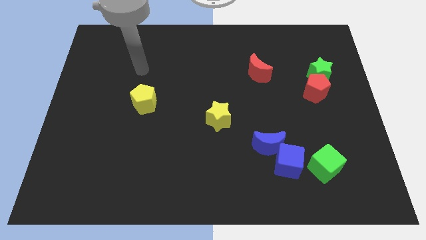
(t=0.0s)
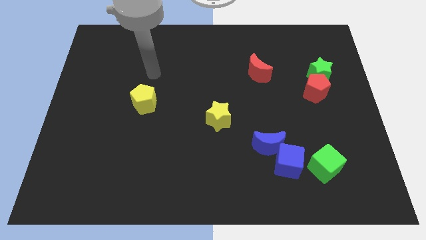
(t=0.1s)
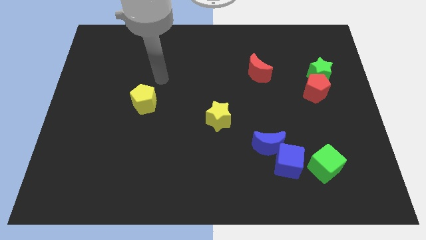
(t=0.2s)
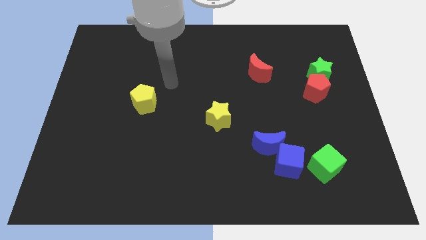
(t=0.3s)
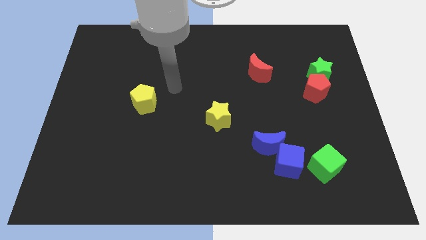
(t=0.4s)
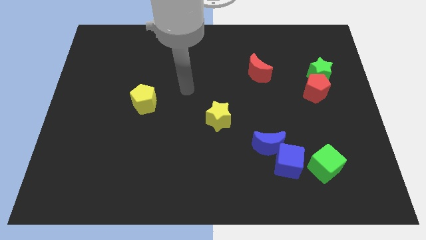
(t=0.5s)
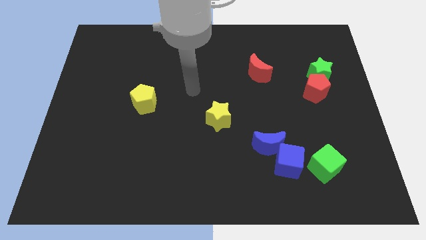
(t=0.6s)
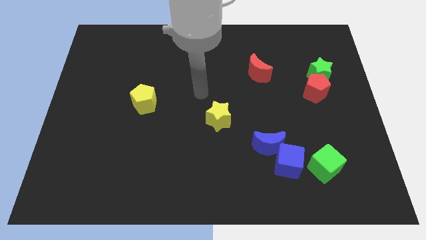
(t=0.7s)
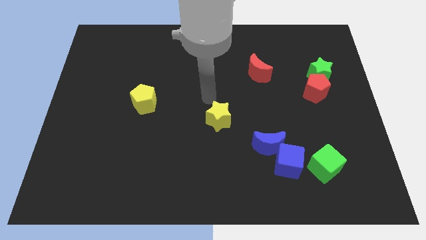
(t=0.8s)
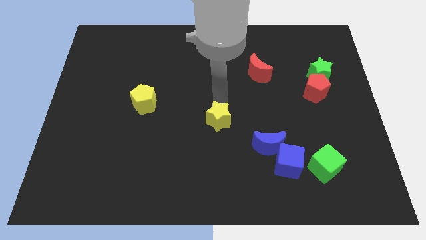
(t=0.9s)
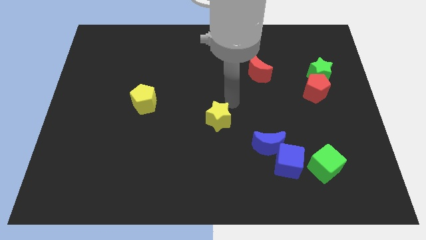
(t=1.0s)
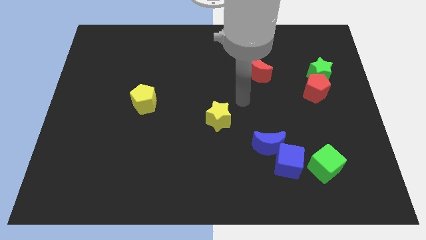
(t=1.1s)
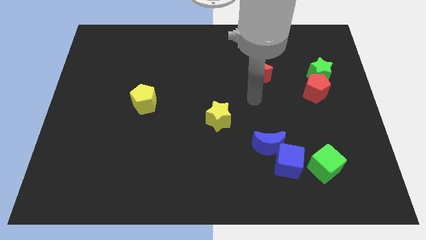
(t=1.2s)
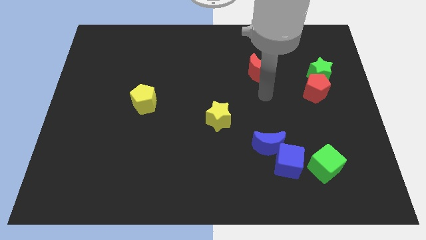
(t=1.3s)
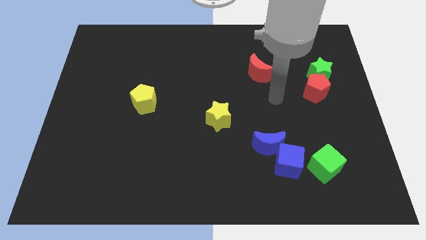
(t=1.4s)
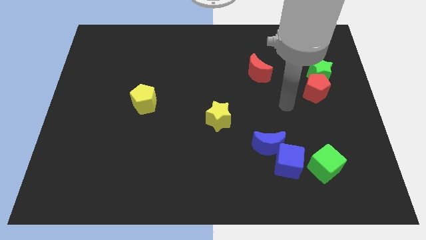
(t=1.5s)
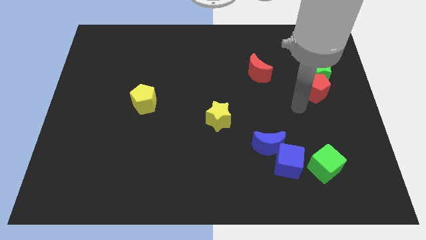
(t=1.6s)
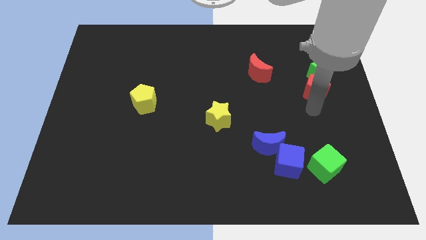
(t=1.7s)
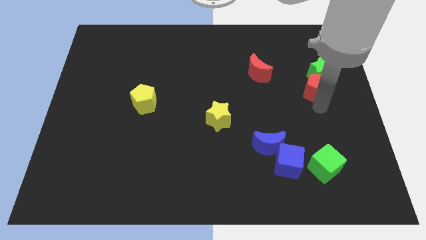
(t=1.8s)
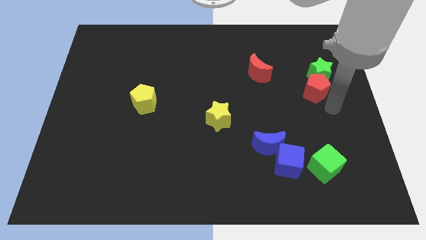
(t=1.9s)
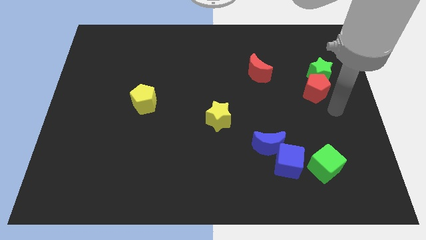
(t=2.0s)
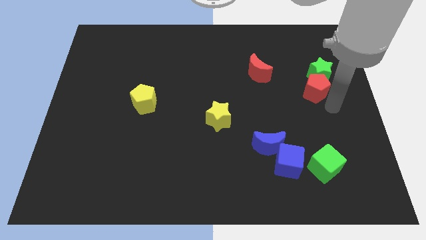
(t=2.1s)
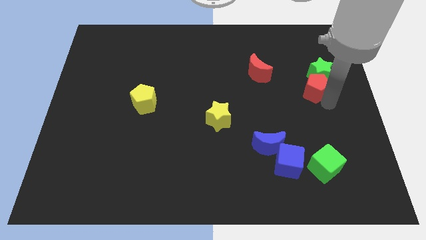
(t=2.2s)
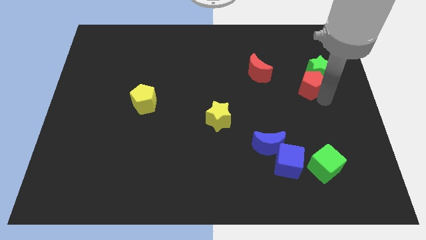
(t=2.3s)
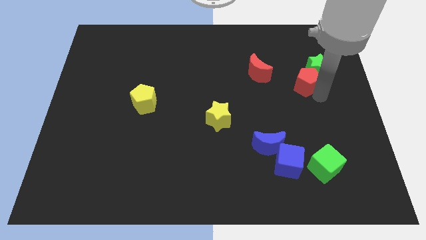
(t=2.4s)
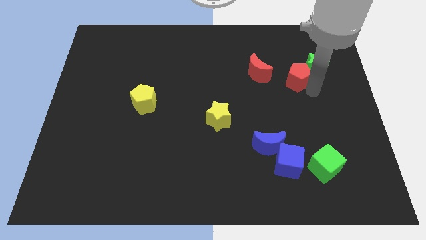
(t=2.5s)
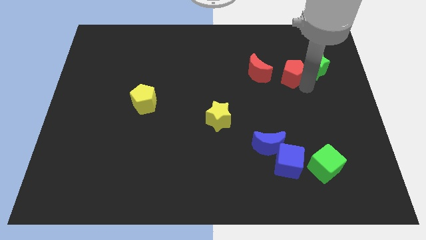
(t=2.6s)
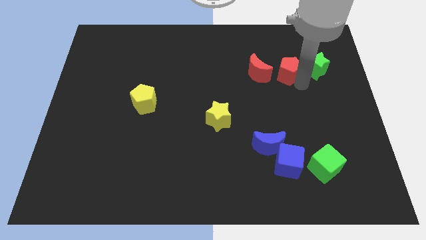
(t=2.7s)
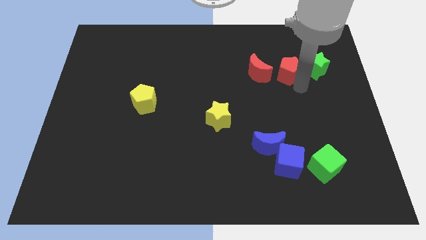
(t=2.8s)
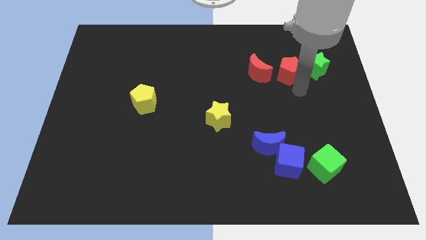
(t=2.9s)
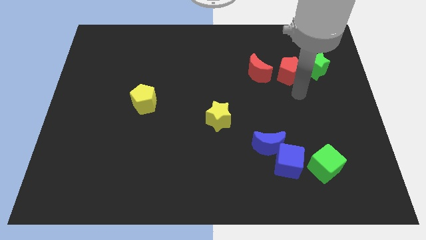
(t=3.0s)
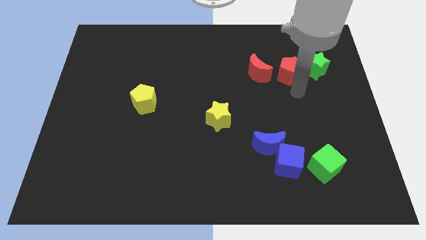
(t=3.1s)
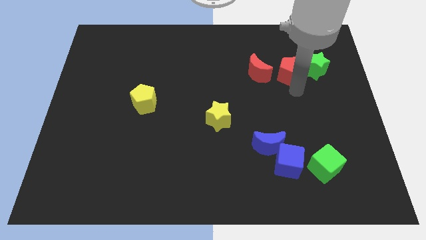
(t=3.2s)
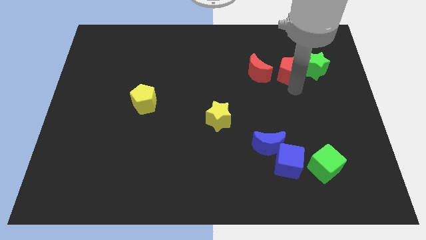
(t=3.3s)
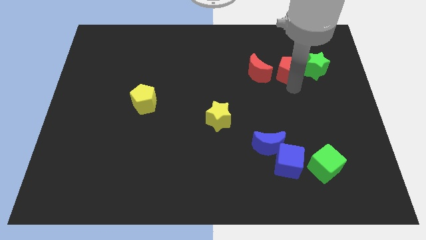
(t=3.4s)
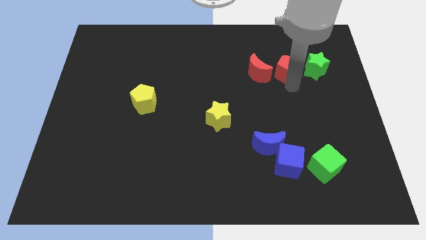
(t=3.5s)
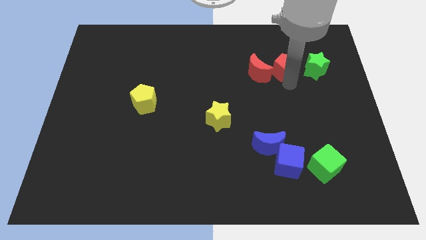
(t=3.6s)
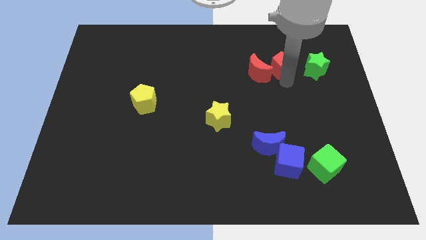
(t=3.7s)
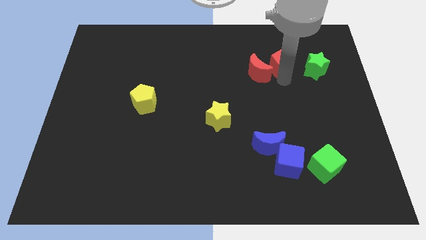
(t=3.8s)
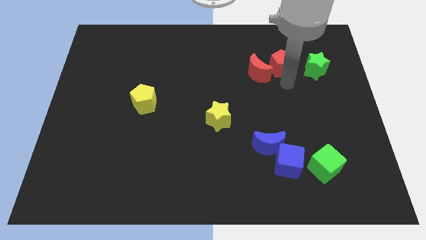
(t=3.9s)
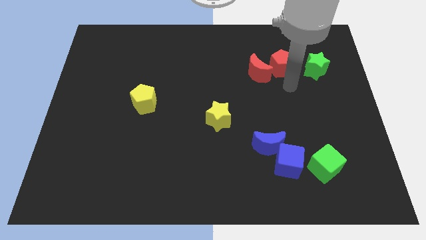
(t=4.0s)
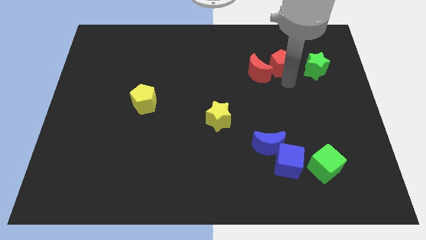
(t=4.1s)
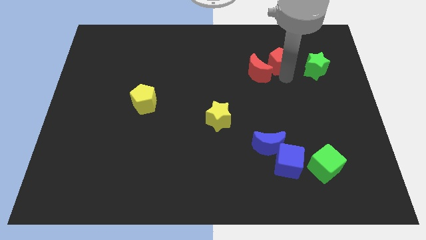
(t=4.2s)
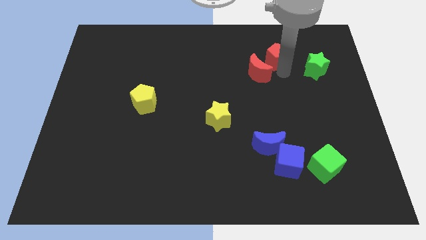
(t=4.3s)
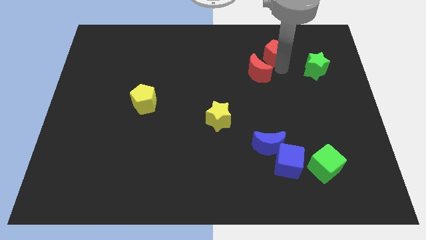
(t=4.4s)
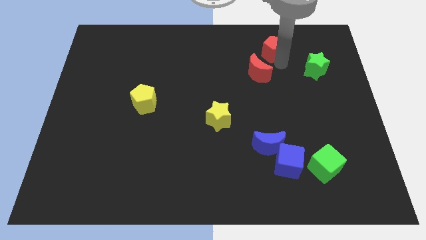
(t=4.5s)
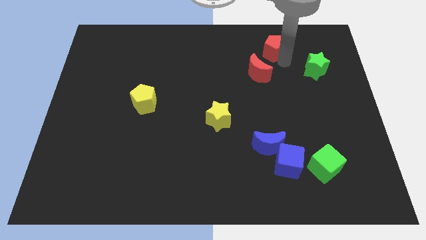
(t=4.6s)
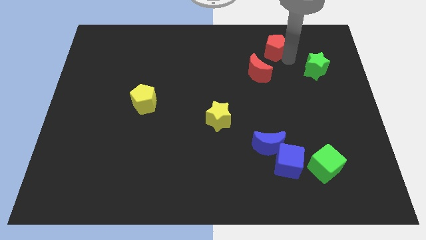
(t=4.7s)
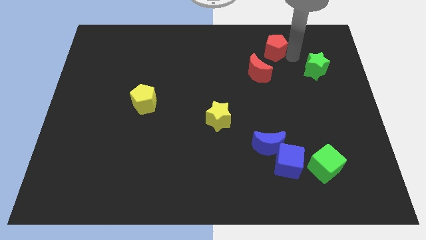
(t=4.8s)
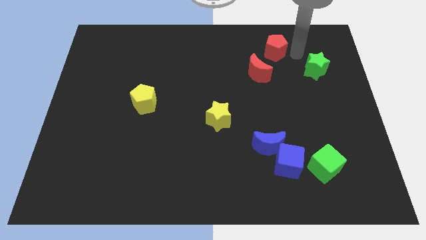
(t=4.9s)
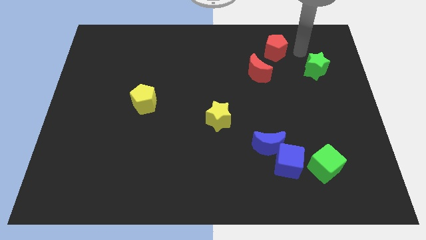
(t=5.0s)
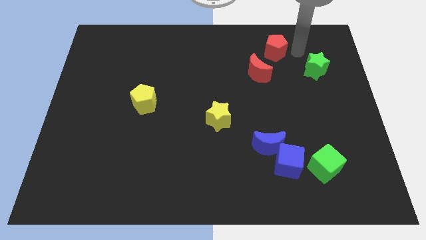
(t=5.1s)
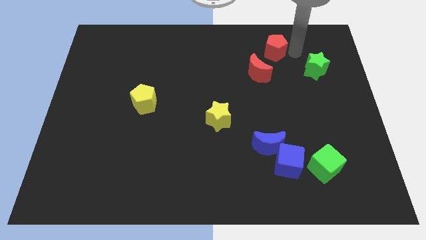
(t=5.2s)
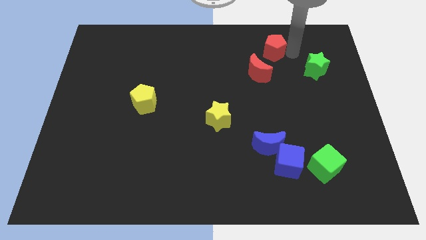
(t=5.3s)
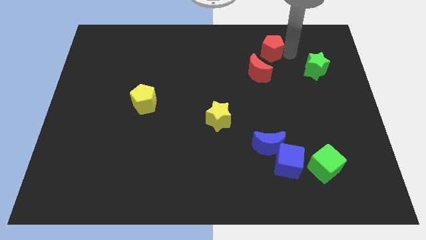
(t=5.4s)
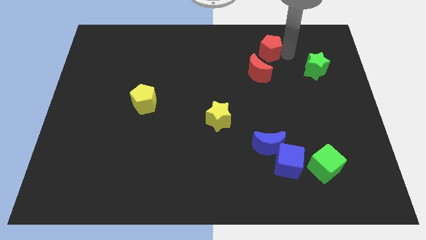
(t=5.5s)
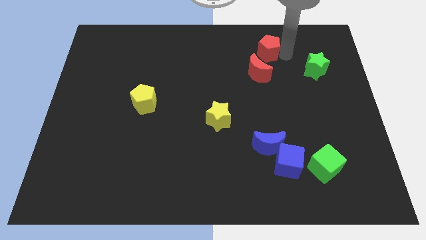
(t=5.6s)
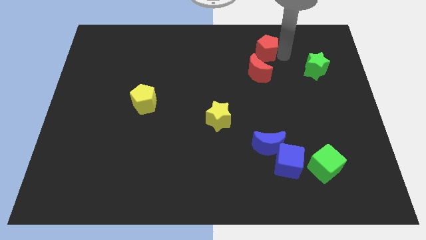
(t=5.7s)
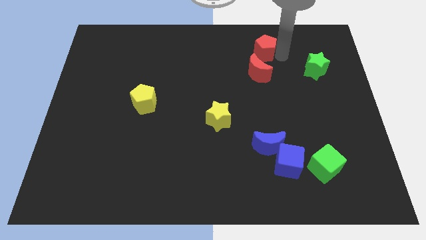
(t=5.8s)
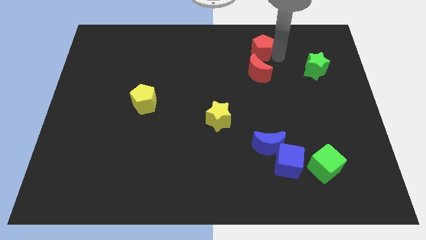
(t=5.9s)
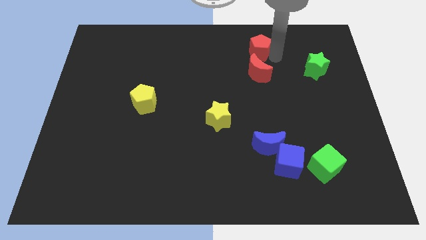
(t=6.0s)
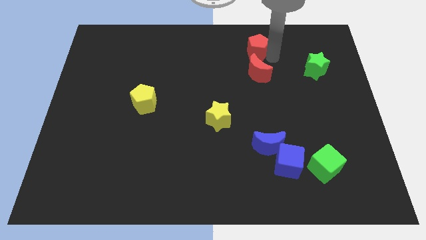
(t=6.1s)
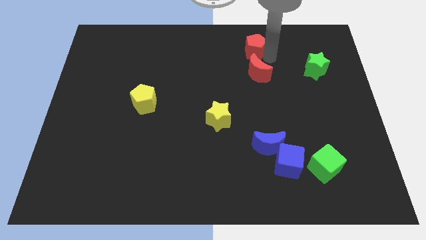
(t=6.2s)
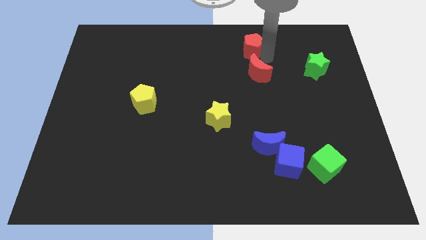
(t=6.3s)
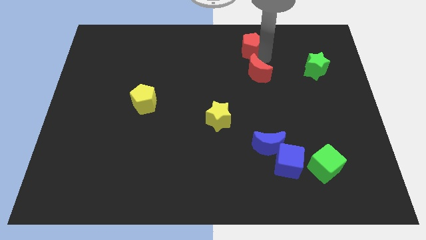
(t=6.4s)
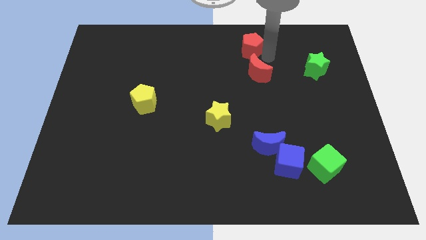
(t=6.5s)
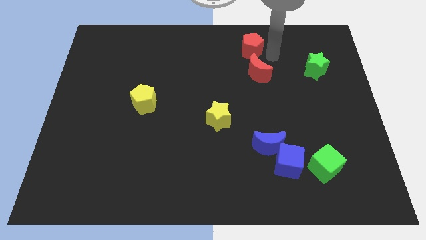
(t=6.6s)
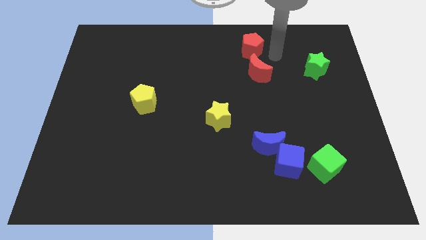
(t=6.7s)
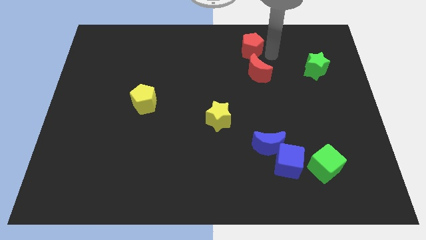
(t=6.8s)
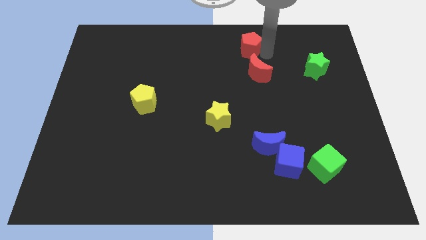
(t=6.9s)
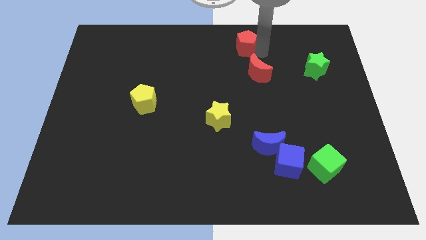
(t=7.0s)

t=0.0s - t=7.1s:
slide the red pentagon to the top

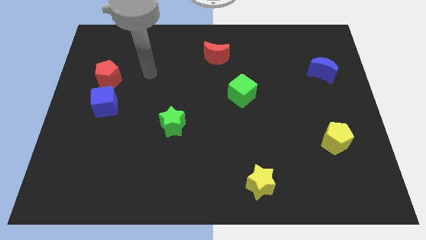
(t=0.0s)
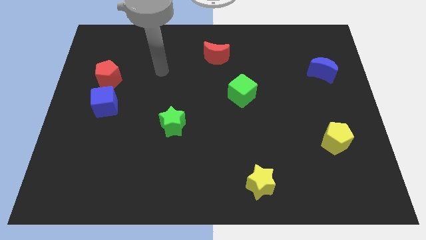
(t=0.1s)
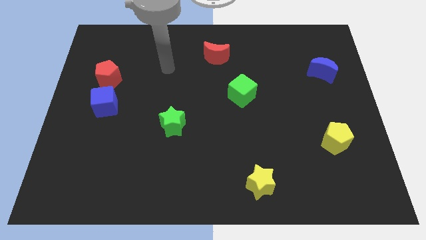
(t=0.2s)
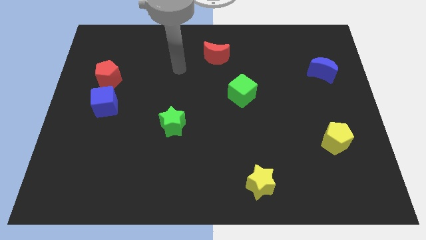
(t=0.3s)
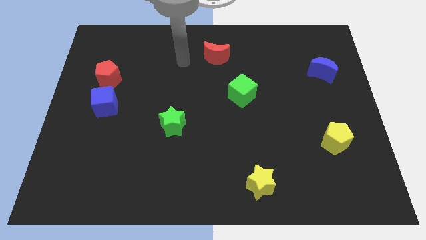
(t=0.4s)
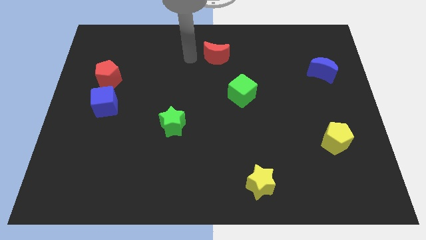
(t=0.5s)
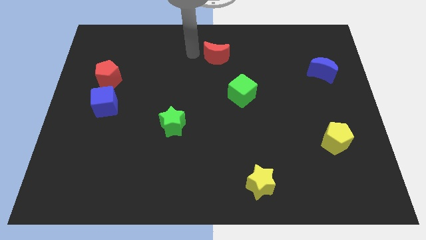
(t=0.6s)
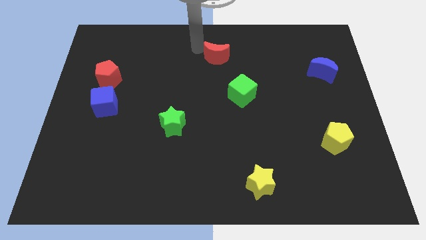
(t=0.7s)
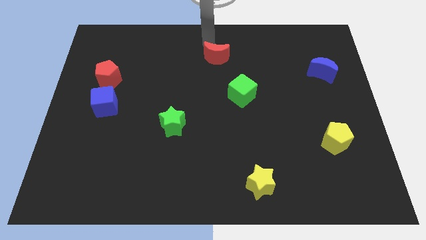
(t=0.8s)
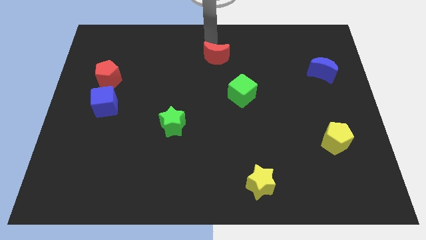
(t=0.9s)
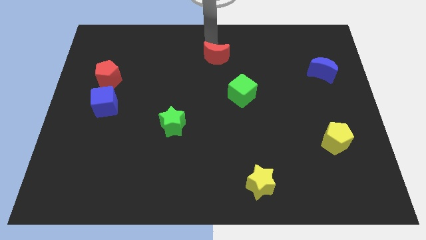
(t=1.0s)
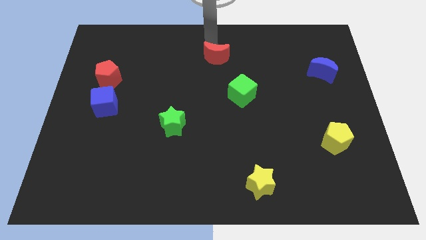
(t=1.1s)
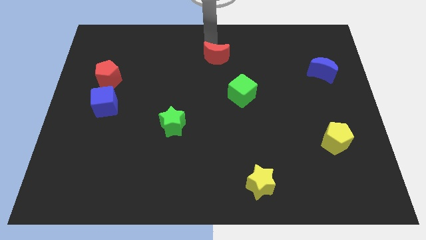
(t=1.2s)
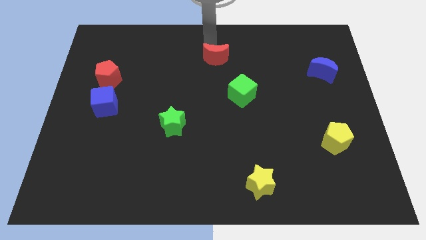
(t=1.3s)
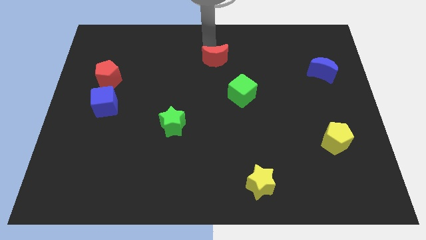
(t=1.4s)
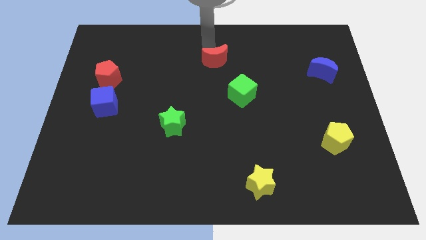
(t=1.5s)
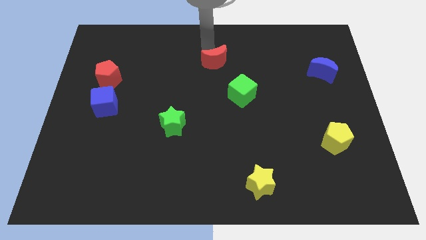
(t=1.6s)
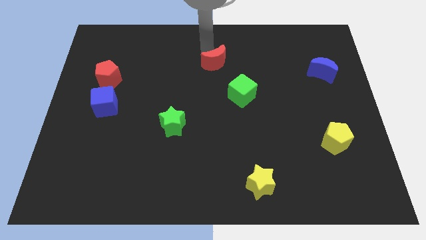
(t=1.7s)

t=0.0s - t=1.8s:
push the red moon to the middle
